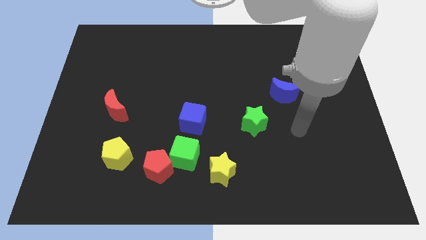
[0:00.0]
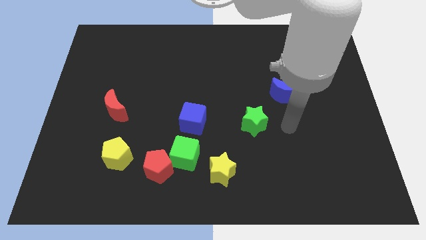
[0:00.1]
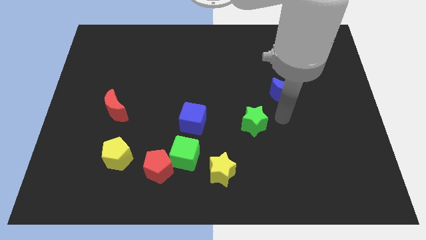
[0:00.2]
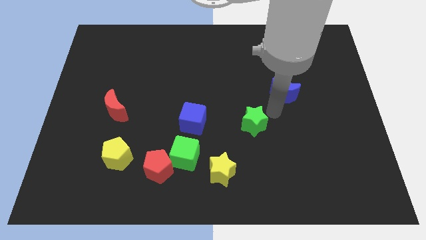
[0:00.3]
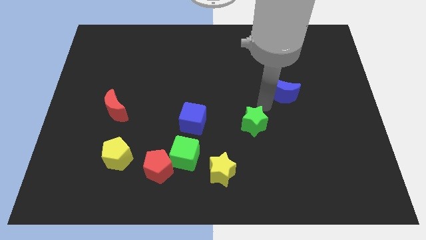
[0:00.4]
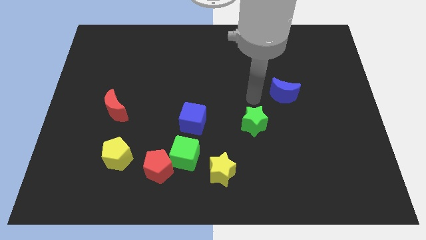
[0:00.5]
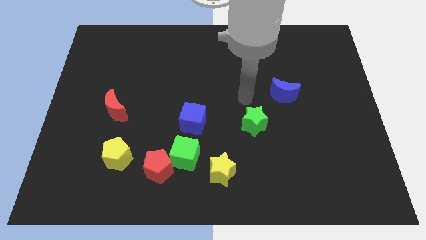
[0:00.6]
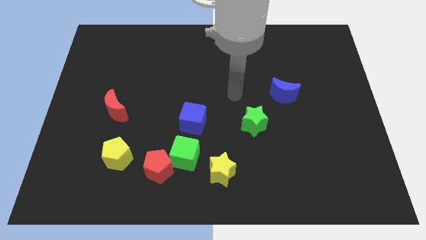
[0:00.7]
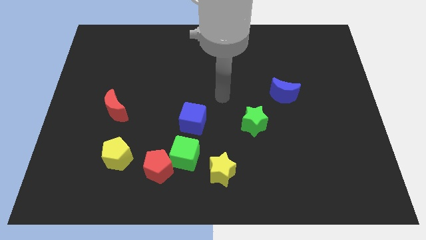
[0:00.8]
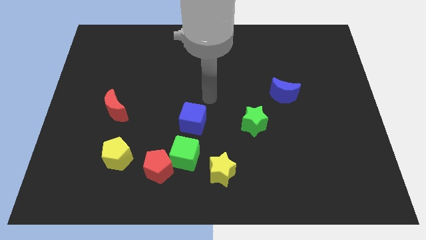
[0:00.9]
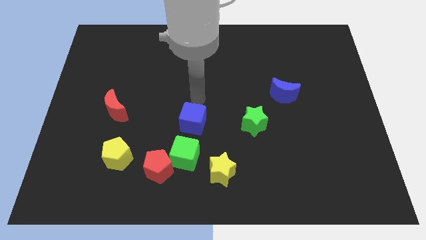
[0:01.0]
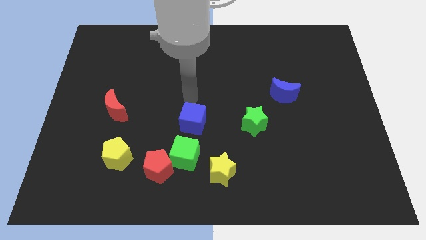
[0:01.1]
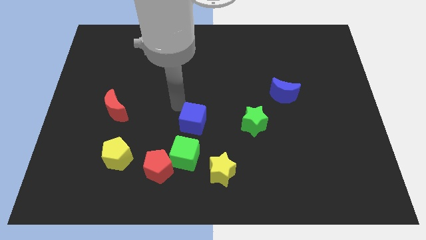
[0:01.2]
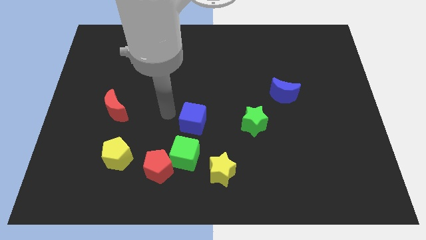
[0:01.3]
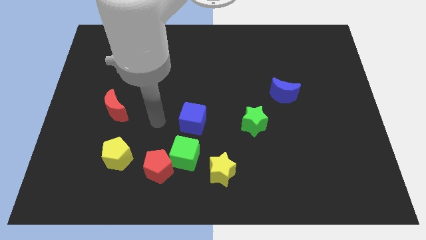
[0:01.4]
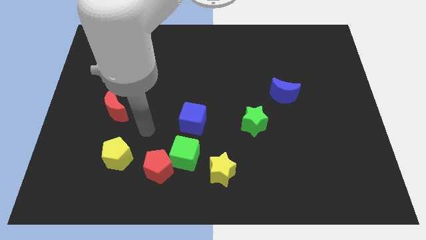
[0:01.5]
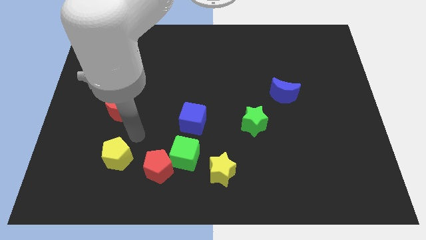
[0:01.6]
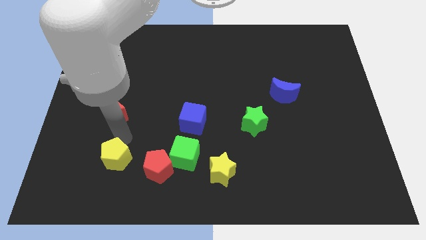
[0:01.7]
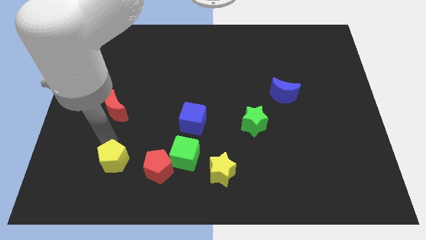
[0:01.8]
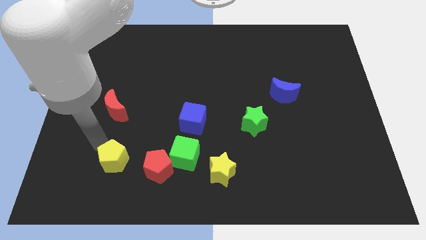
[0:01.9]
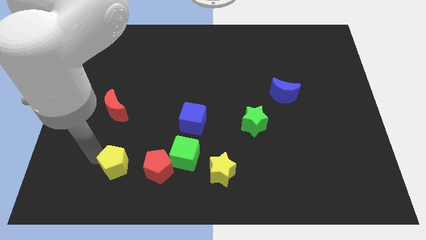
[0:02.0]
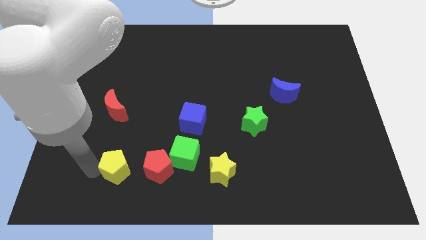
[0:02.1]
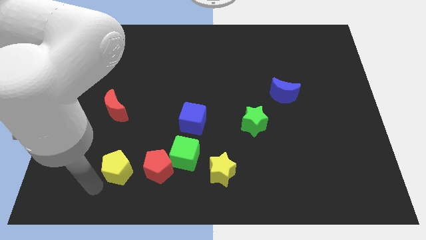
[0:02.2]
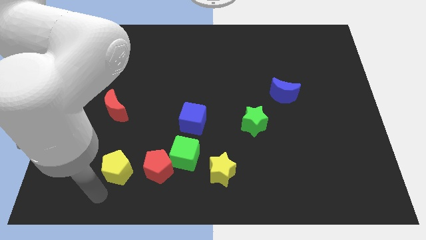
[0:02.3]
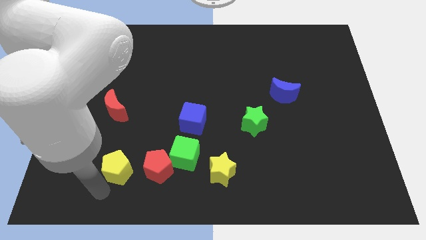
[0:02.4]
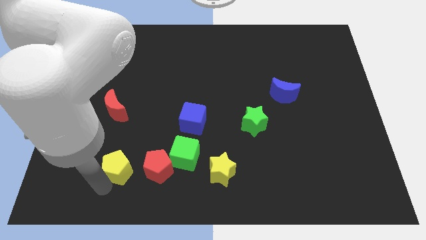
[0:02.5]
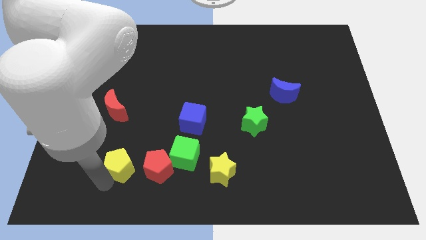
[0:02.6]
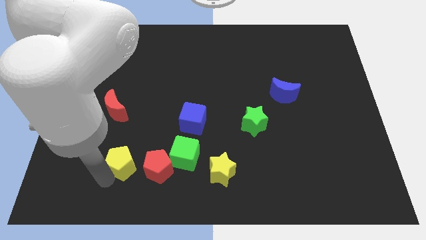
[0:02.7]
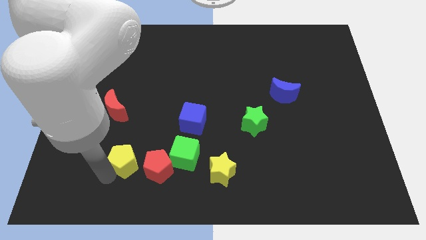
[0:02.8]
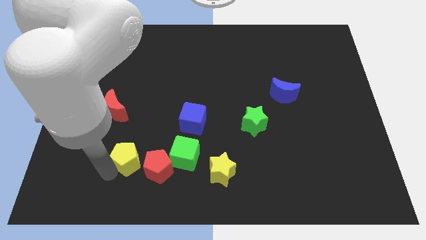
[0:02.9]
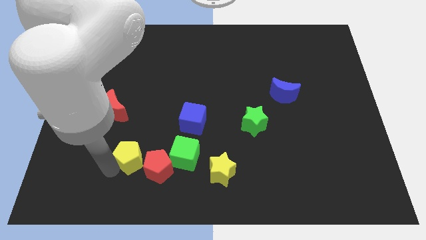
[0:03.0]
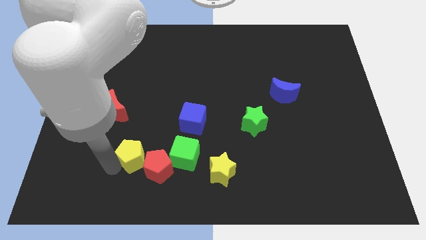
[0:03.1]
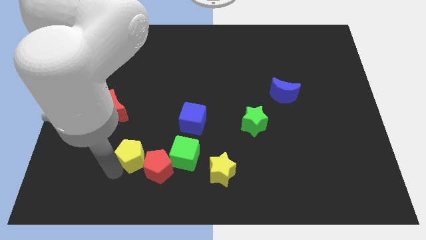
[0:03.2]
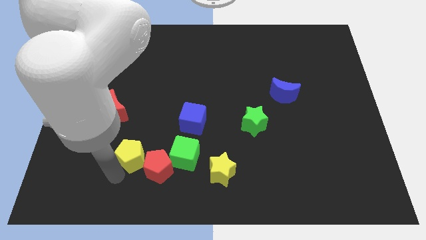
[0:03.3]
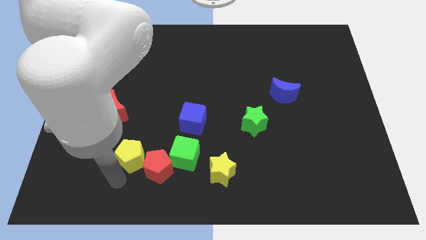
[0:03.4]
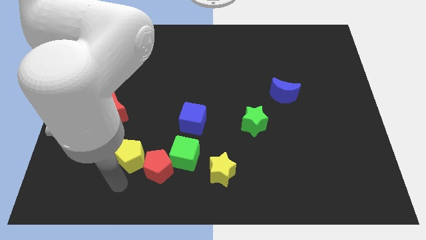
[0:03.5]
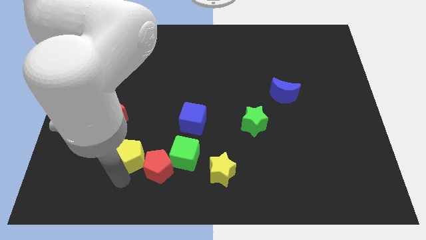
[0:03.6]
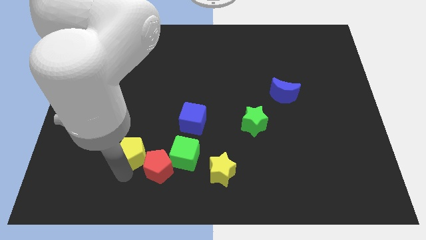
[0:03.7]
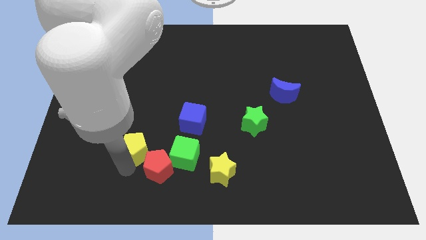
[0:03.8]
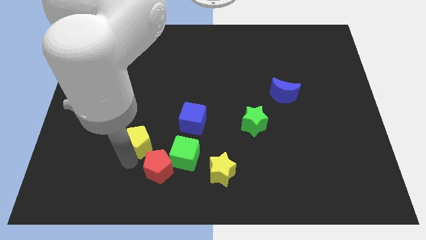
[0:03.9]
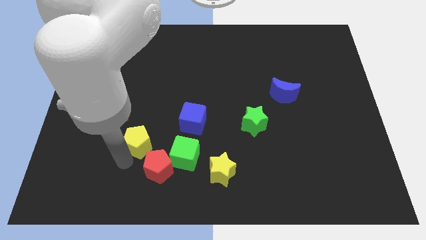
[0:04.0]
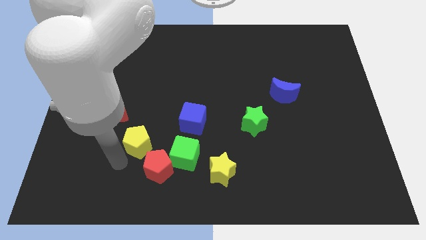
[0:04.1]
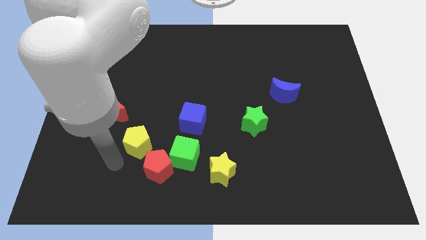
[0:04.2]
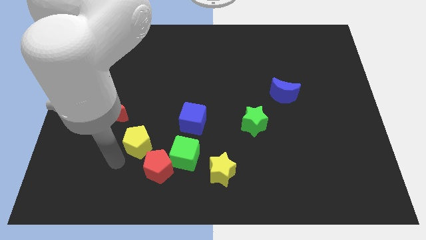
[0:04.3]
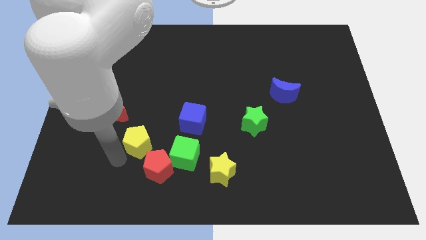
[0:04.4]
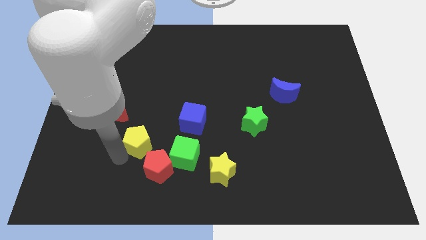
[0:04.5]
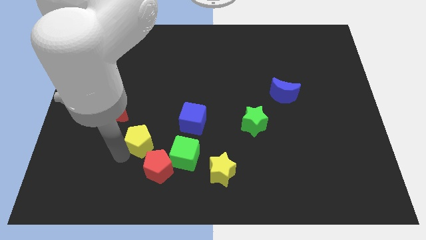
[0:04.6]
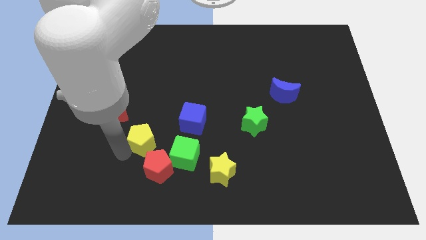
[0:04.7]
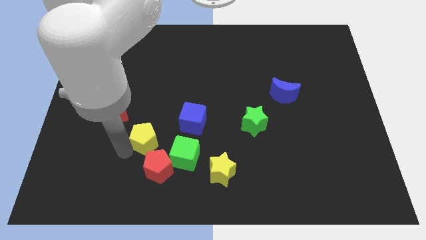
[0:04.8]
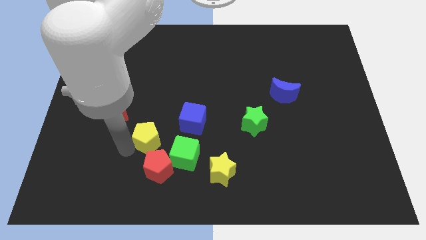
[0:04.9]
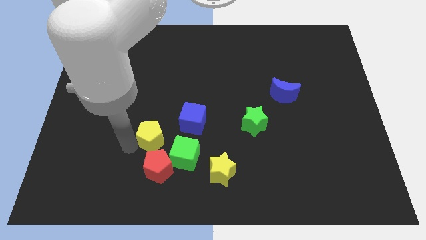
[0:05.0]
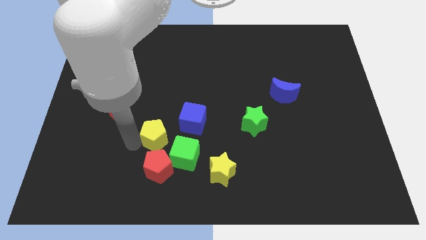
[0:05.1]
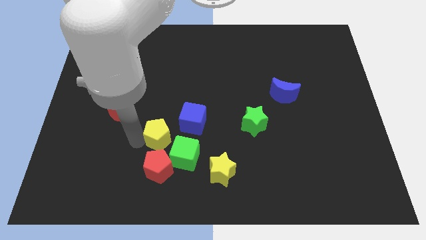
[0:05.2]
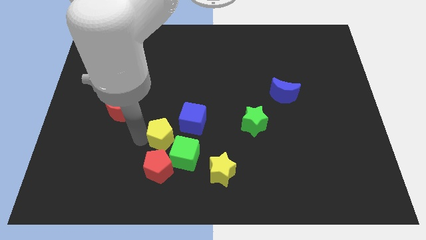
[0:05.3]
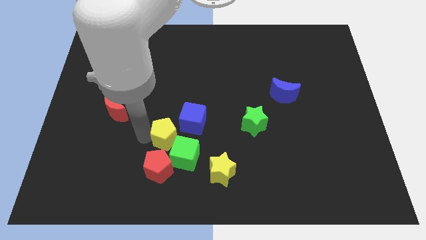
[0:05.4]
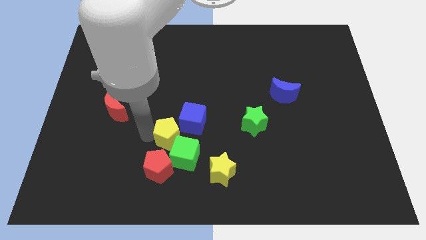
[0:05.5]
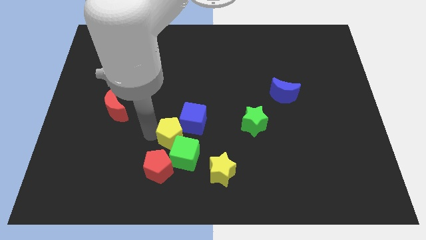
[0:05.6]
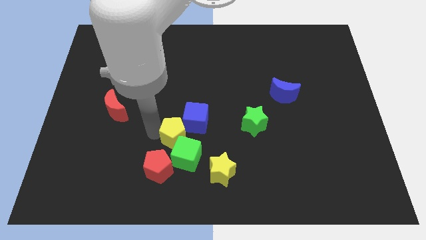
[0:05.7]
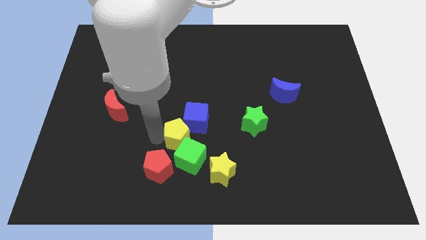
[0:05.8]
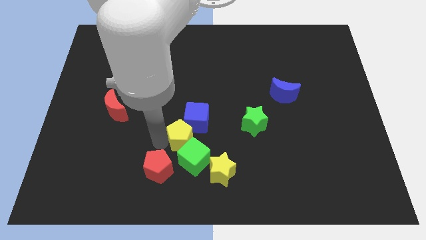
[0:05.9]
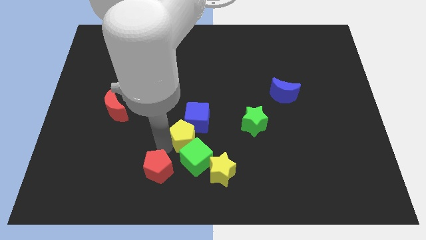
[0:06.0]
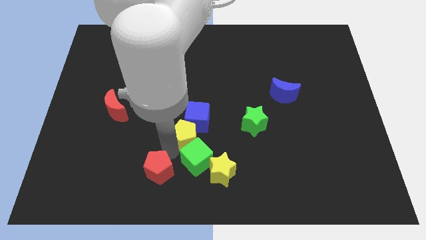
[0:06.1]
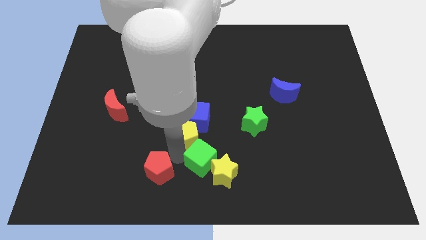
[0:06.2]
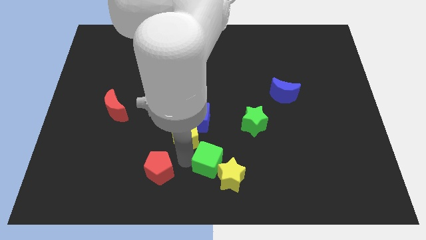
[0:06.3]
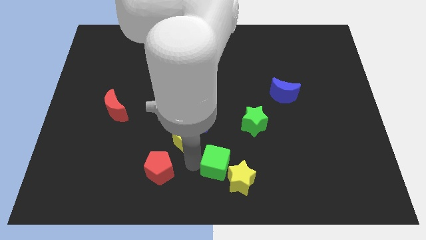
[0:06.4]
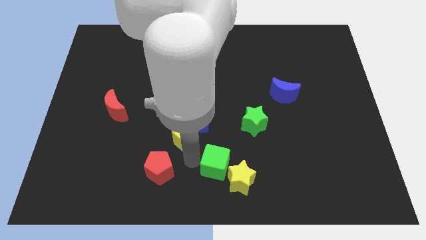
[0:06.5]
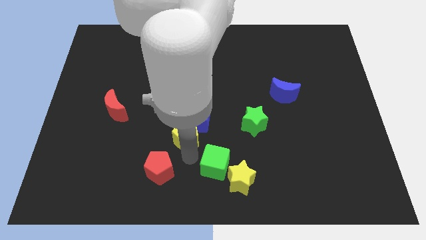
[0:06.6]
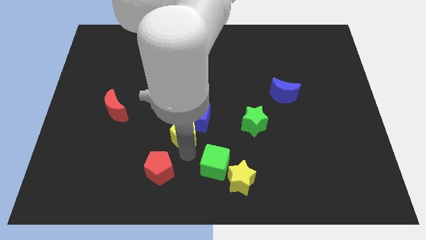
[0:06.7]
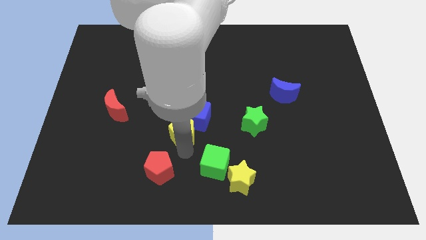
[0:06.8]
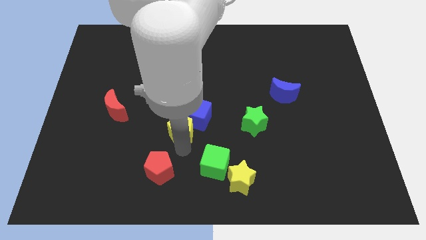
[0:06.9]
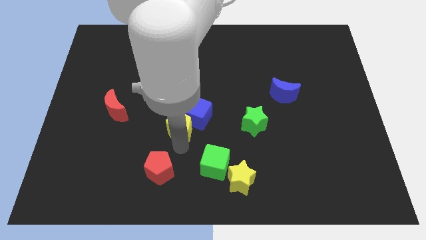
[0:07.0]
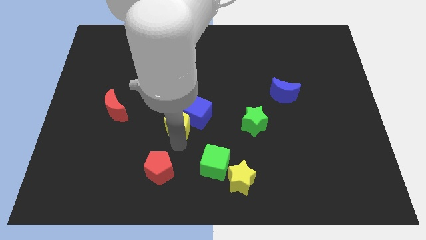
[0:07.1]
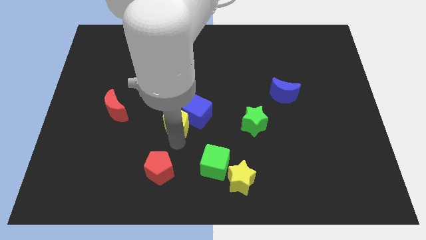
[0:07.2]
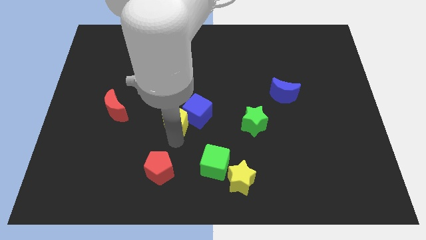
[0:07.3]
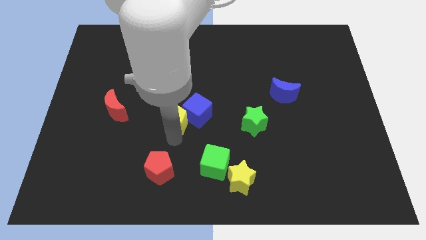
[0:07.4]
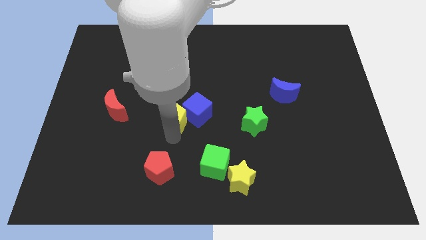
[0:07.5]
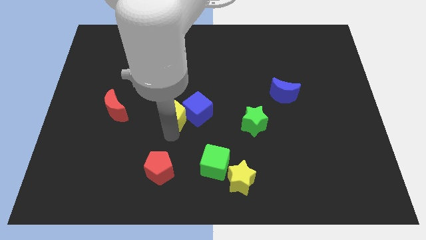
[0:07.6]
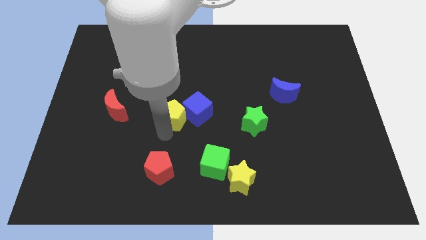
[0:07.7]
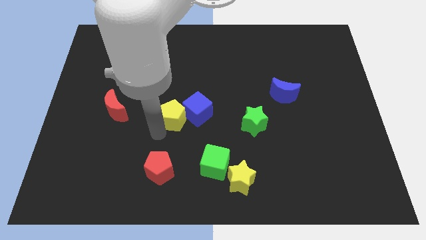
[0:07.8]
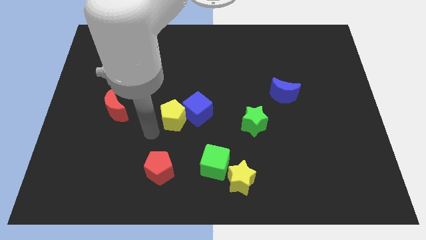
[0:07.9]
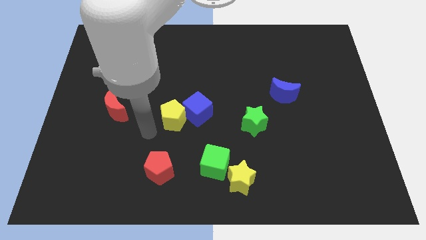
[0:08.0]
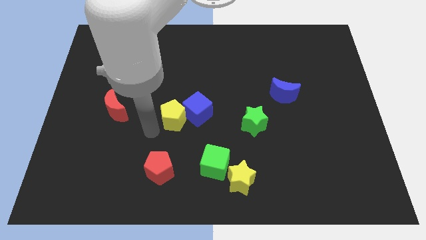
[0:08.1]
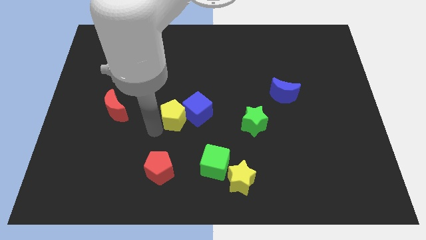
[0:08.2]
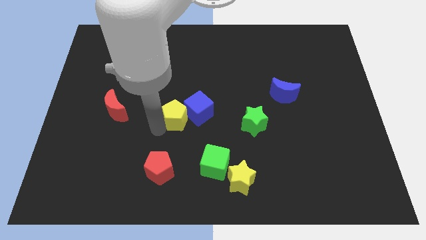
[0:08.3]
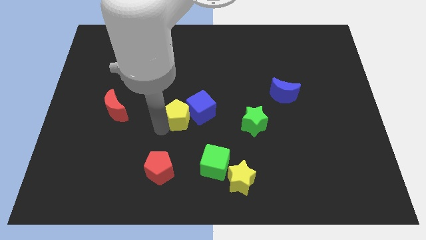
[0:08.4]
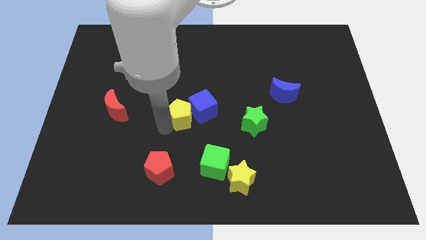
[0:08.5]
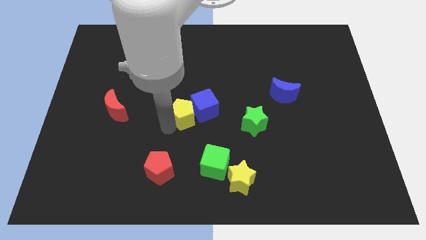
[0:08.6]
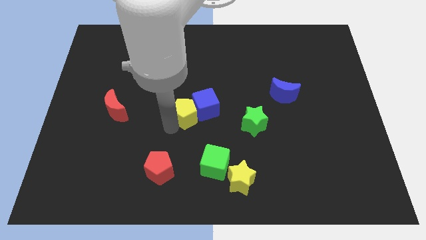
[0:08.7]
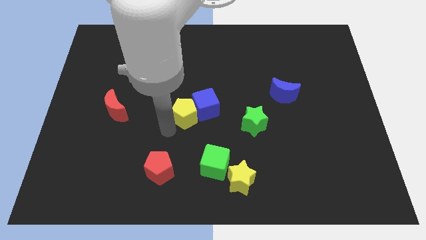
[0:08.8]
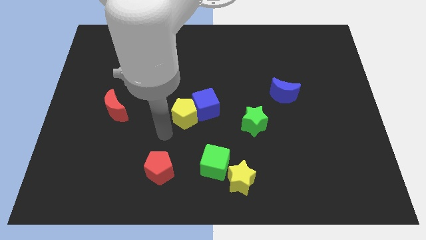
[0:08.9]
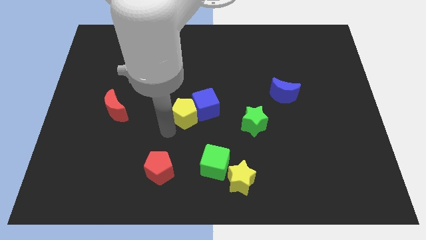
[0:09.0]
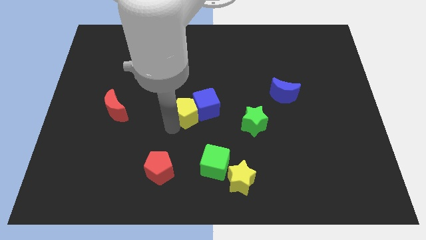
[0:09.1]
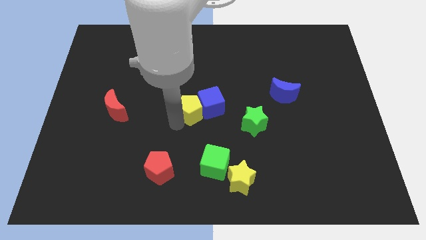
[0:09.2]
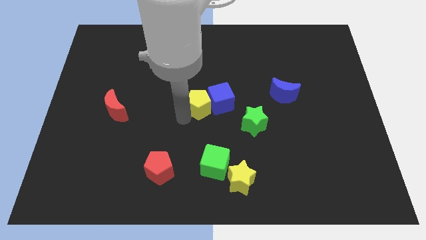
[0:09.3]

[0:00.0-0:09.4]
slide the yellow pentagon upwards and to the right diagonally
